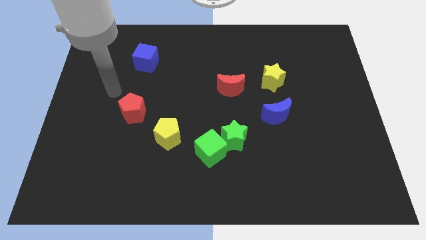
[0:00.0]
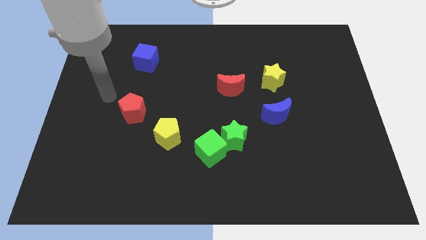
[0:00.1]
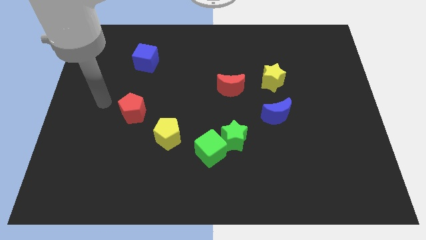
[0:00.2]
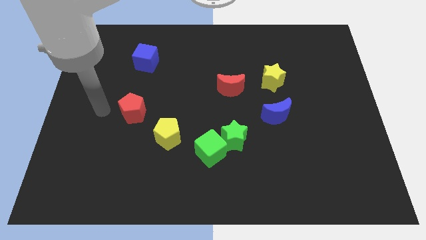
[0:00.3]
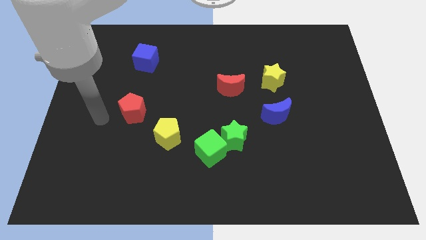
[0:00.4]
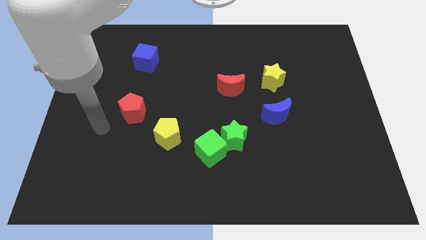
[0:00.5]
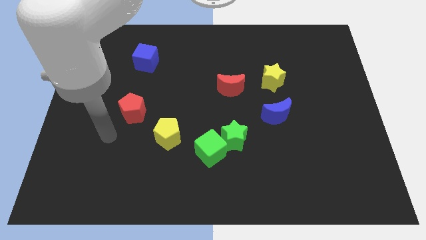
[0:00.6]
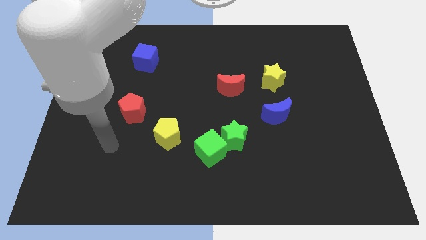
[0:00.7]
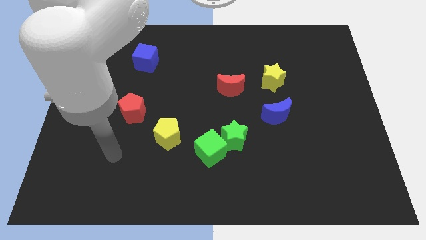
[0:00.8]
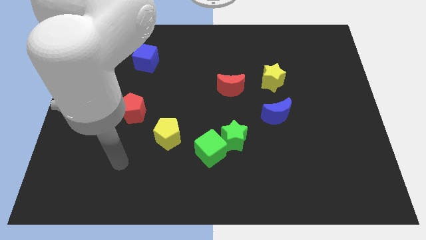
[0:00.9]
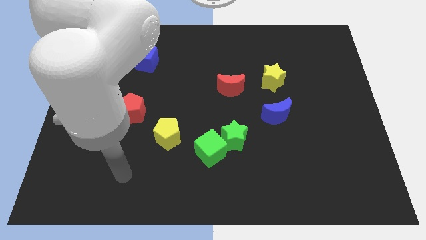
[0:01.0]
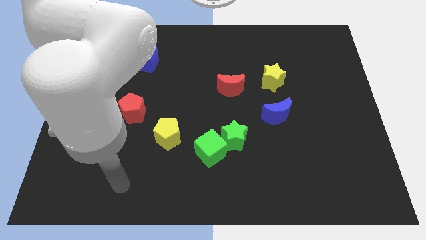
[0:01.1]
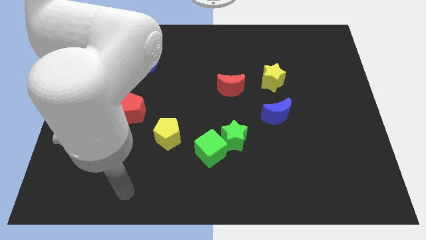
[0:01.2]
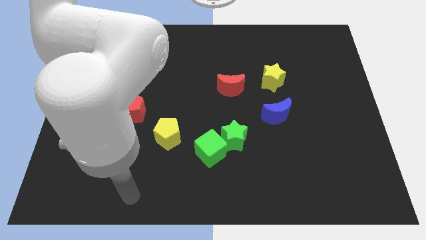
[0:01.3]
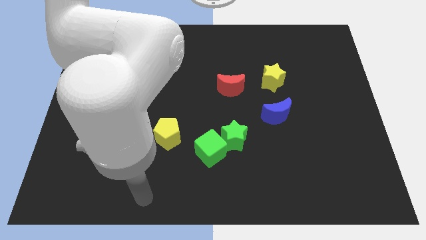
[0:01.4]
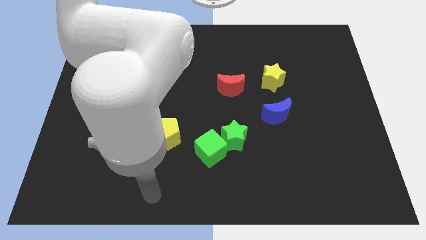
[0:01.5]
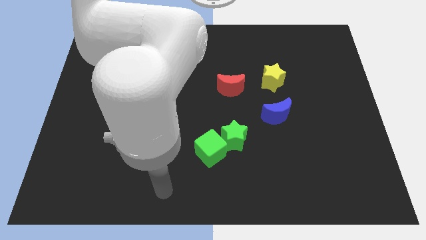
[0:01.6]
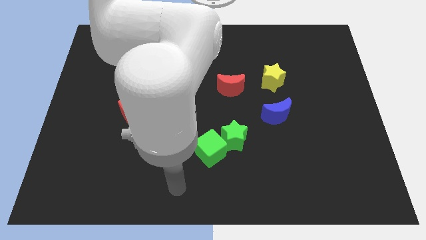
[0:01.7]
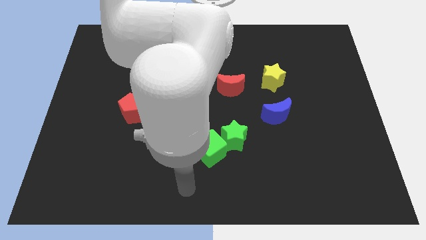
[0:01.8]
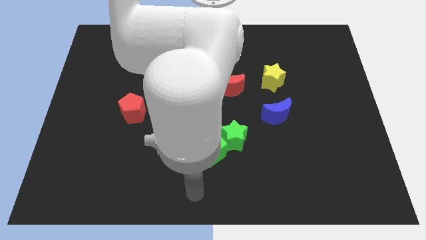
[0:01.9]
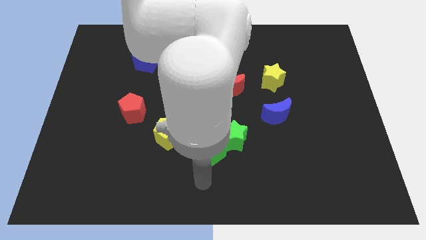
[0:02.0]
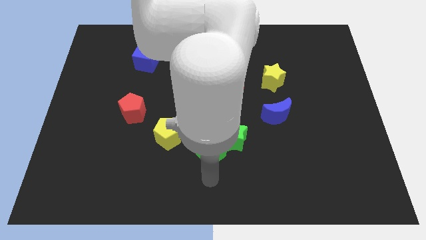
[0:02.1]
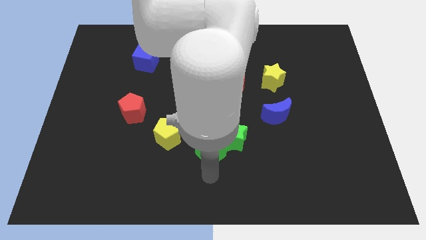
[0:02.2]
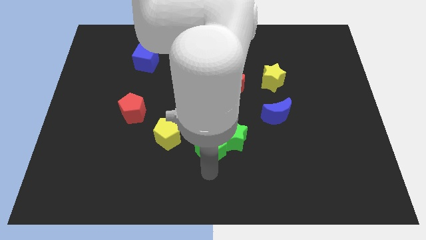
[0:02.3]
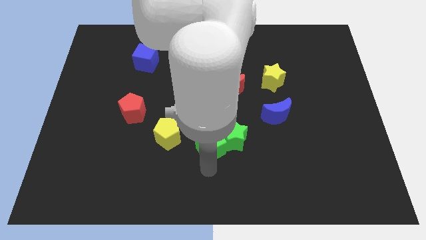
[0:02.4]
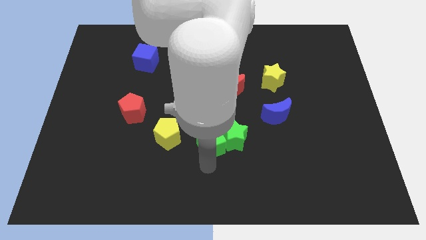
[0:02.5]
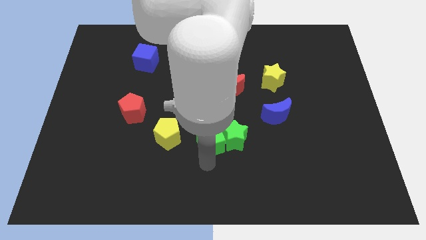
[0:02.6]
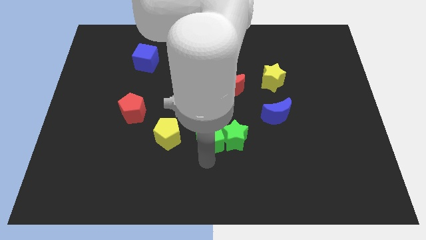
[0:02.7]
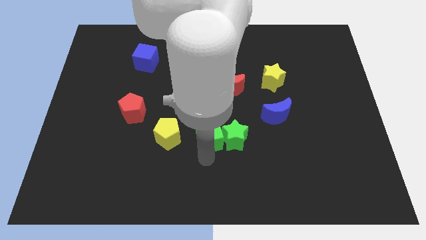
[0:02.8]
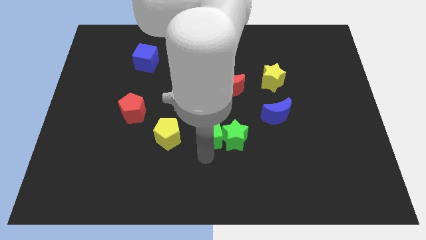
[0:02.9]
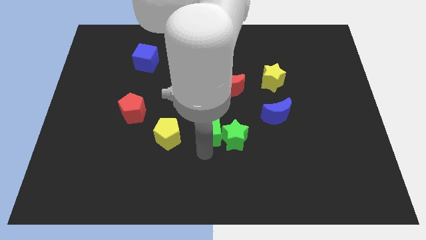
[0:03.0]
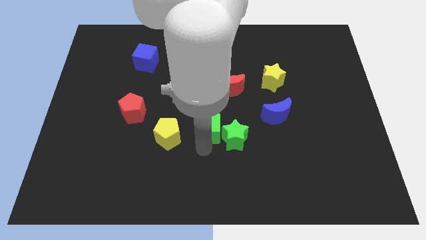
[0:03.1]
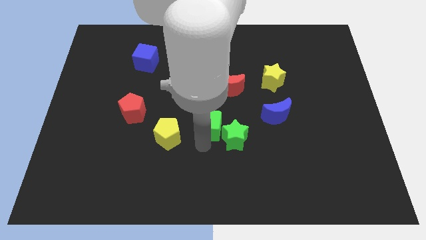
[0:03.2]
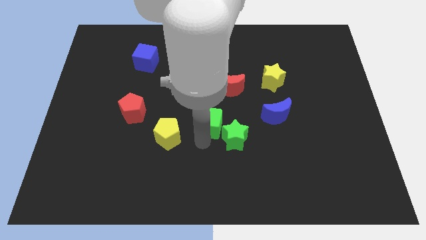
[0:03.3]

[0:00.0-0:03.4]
move the green cube upwards a little bit

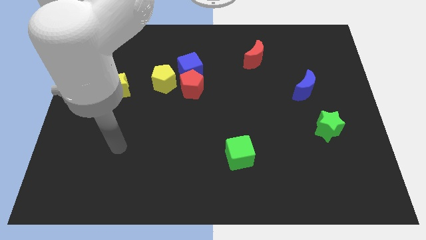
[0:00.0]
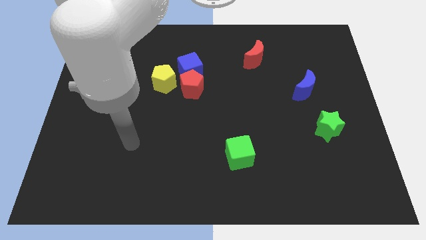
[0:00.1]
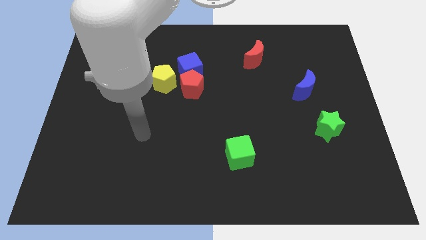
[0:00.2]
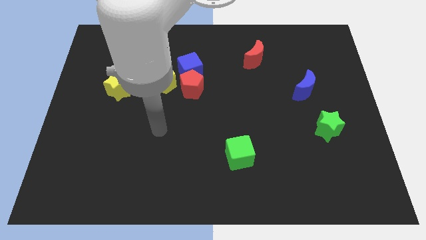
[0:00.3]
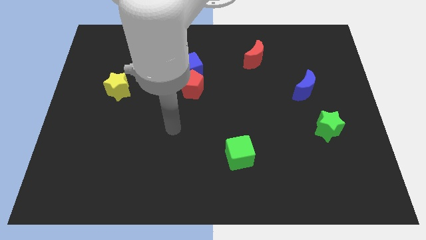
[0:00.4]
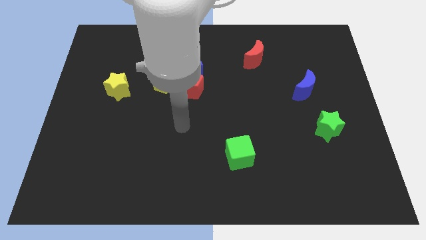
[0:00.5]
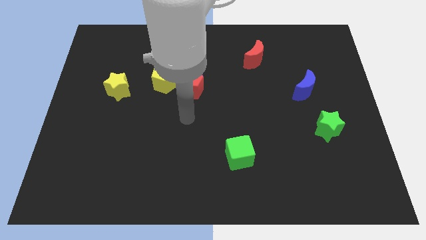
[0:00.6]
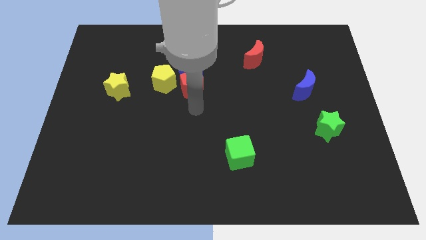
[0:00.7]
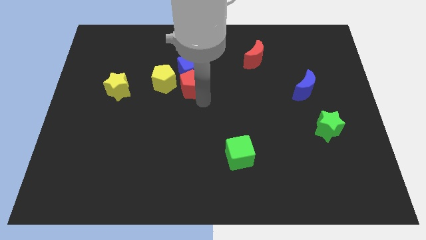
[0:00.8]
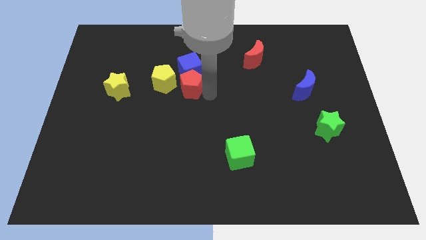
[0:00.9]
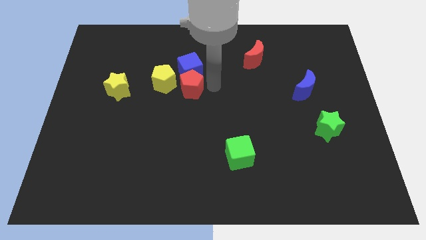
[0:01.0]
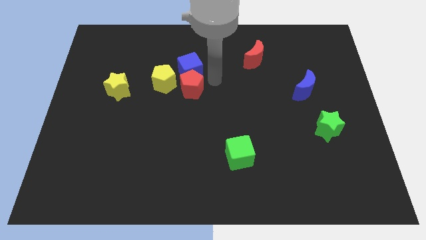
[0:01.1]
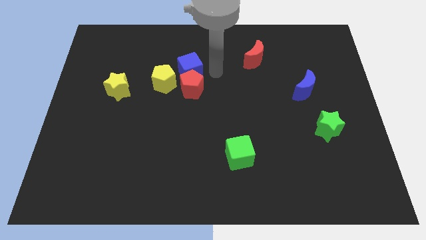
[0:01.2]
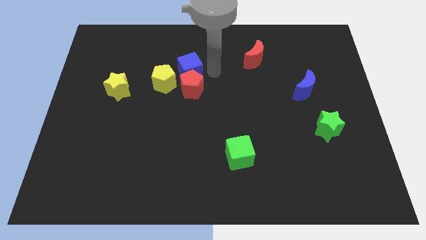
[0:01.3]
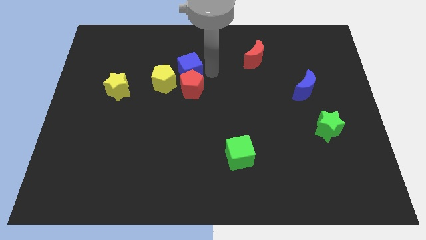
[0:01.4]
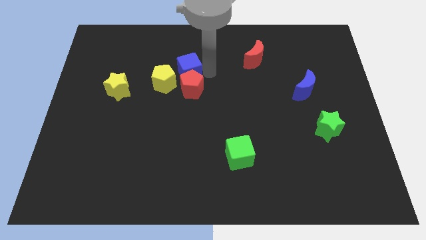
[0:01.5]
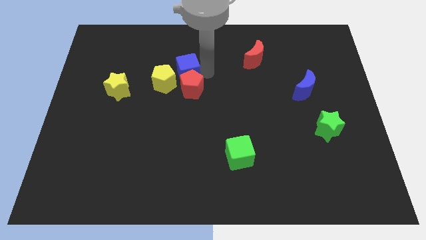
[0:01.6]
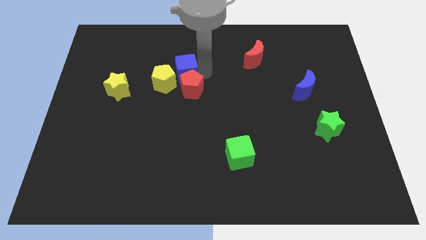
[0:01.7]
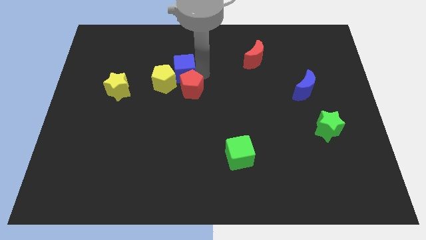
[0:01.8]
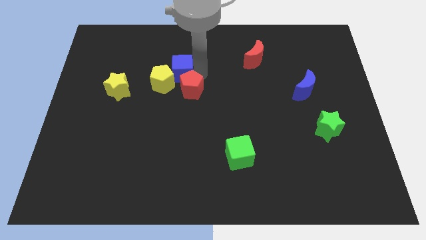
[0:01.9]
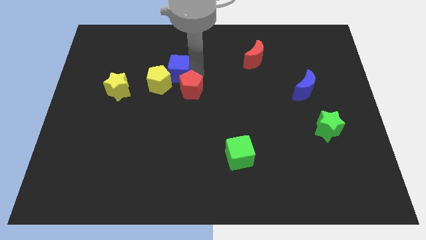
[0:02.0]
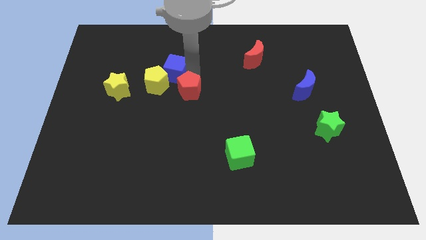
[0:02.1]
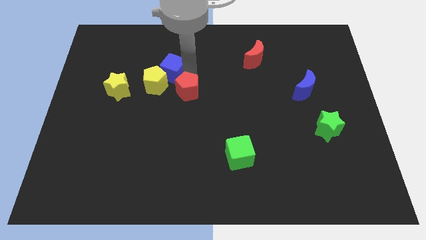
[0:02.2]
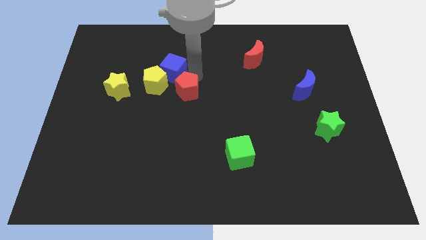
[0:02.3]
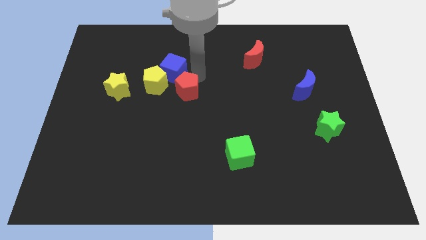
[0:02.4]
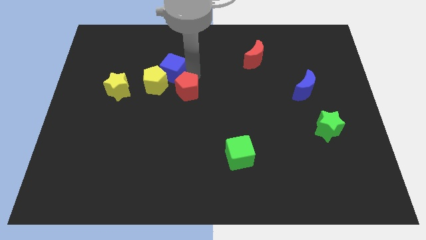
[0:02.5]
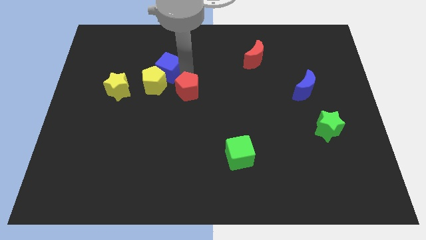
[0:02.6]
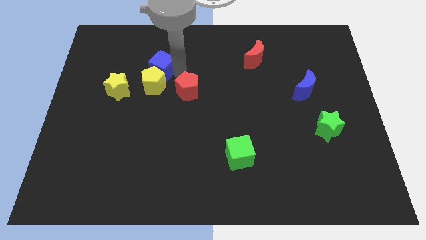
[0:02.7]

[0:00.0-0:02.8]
slide the blue cube left a bit

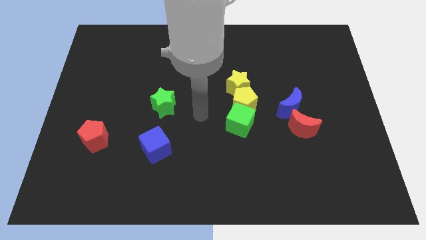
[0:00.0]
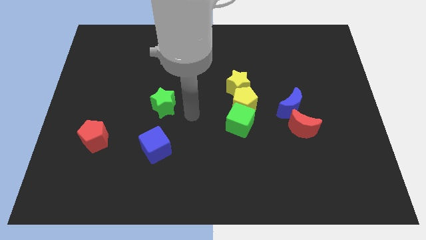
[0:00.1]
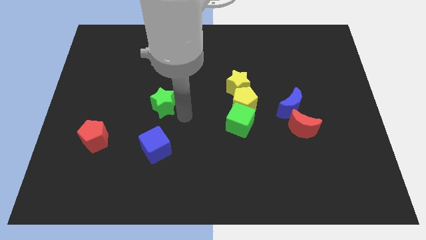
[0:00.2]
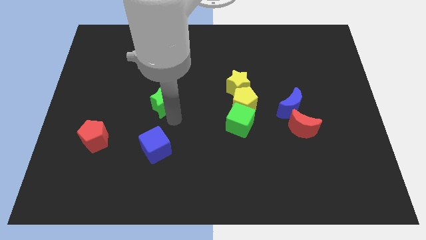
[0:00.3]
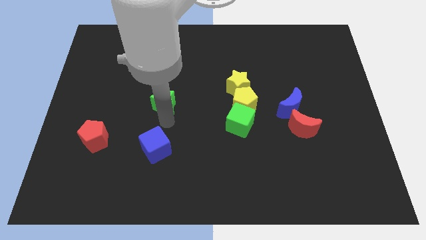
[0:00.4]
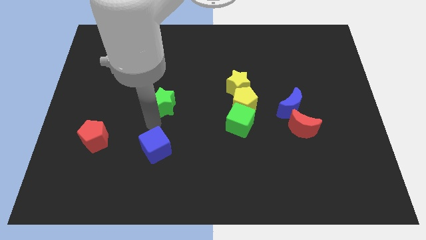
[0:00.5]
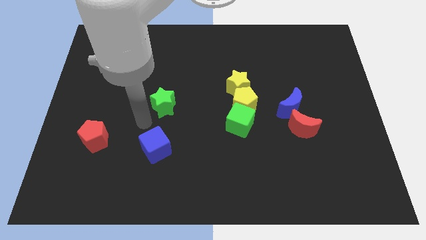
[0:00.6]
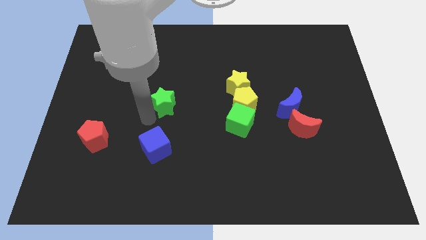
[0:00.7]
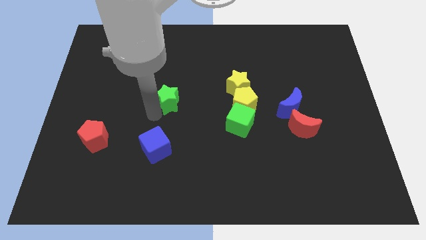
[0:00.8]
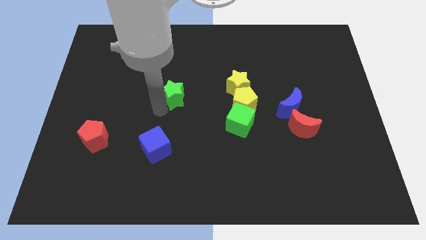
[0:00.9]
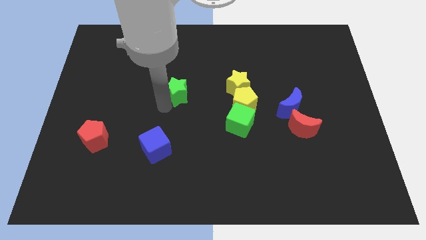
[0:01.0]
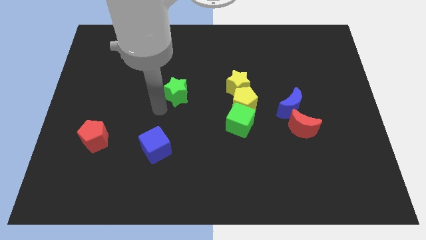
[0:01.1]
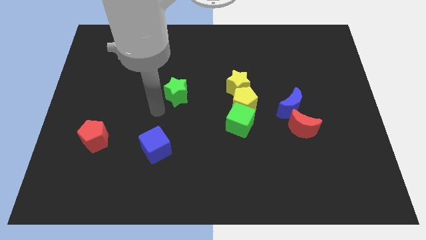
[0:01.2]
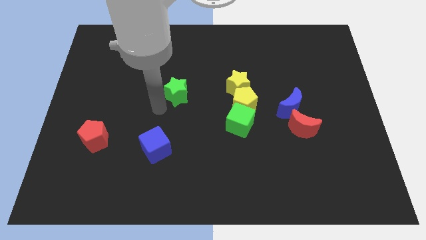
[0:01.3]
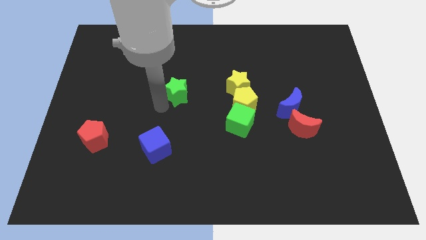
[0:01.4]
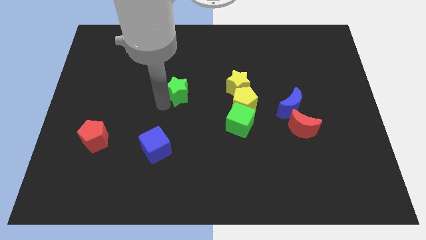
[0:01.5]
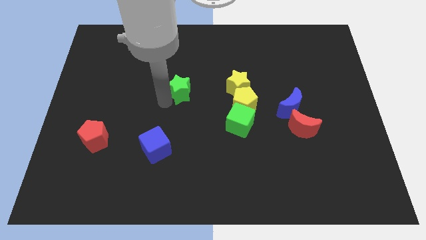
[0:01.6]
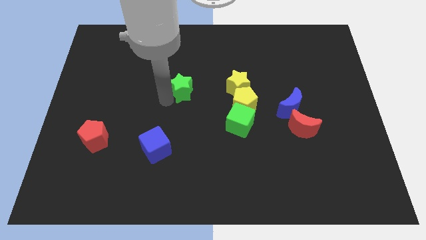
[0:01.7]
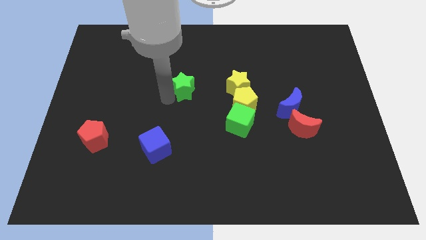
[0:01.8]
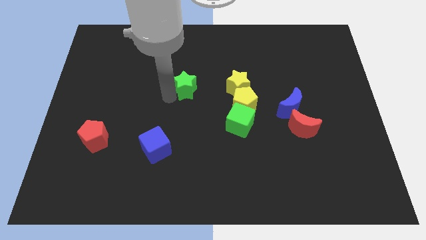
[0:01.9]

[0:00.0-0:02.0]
push the green star up and then to the right a little
